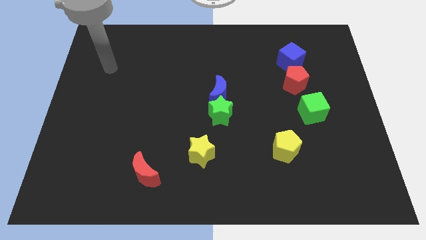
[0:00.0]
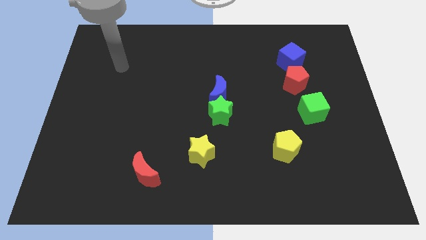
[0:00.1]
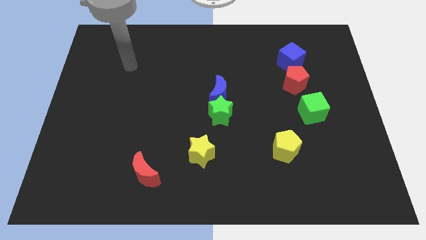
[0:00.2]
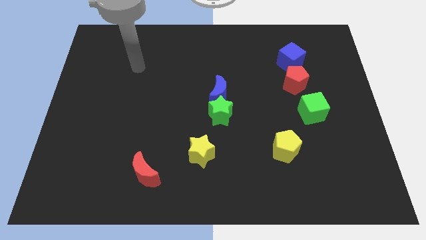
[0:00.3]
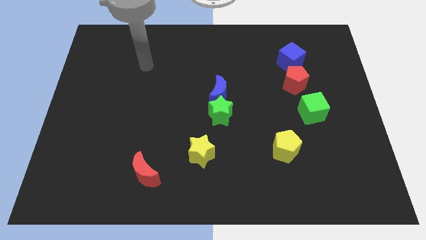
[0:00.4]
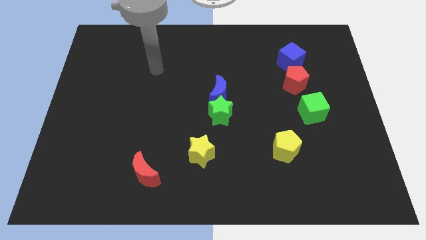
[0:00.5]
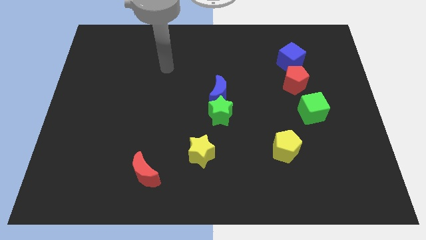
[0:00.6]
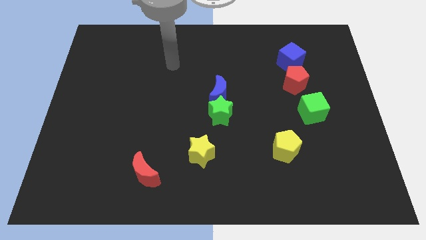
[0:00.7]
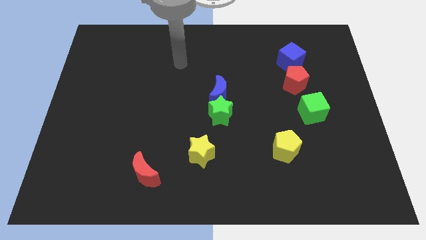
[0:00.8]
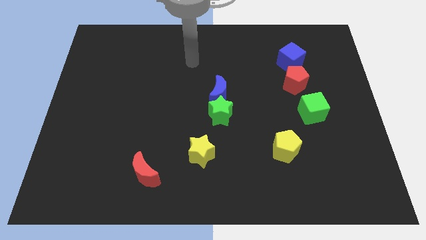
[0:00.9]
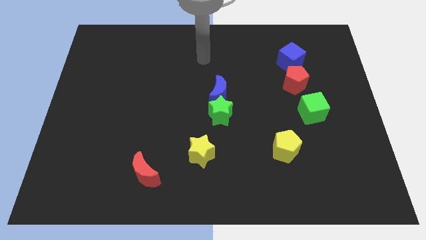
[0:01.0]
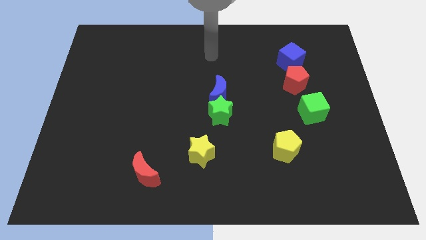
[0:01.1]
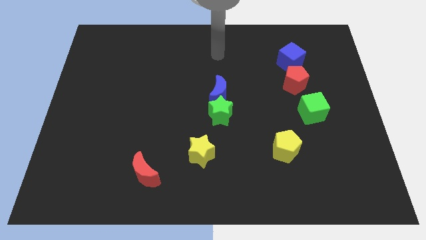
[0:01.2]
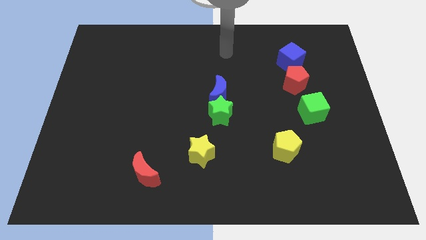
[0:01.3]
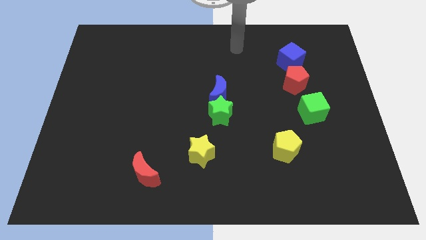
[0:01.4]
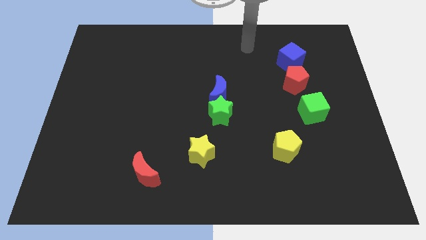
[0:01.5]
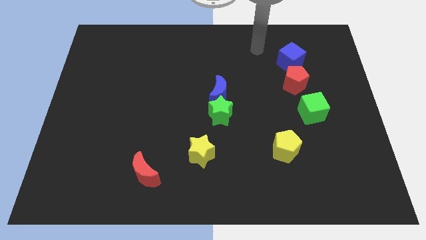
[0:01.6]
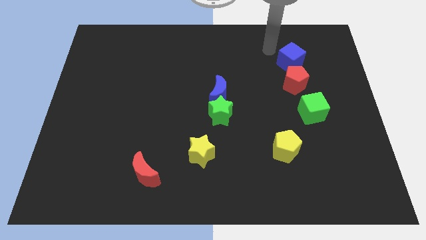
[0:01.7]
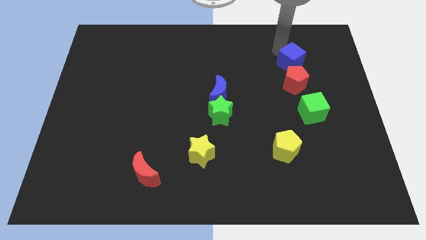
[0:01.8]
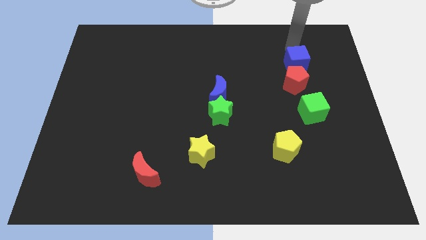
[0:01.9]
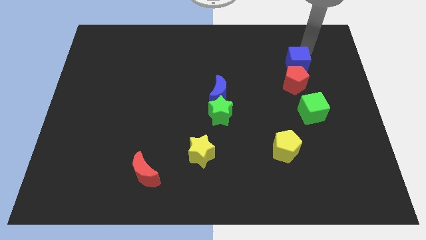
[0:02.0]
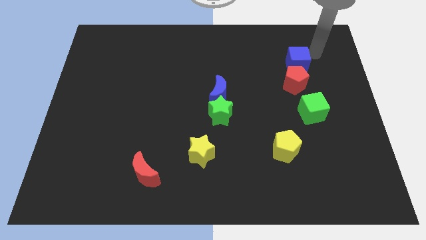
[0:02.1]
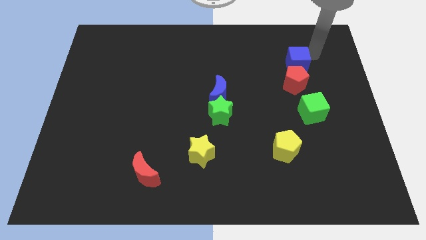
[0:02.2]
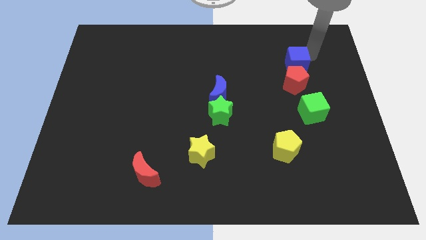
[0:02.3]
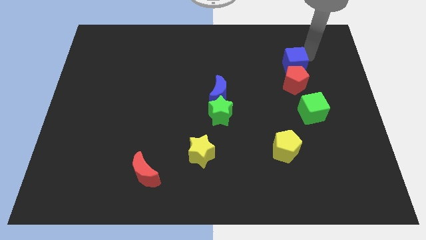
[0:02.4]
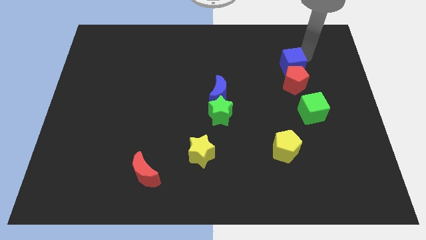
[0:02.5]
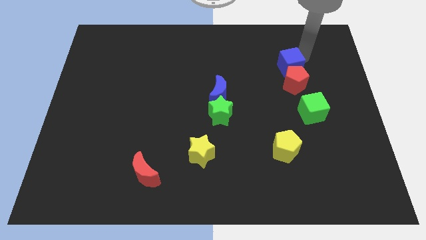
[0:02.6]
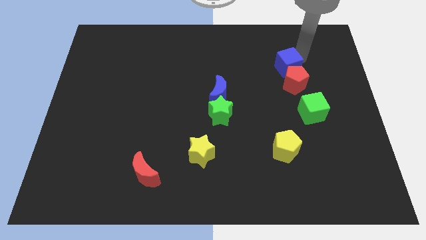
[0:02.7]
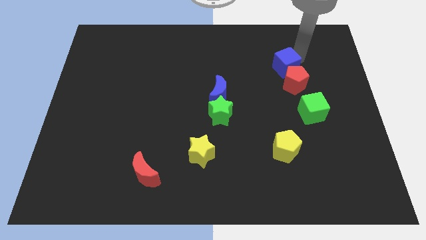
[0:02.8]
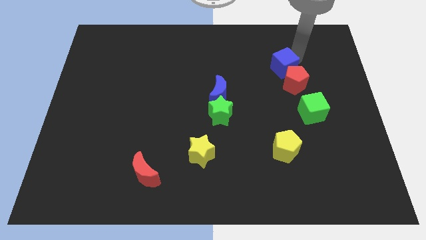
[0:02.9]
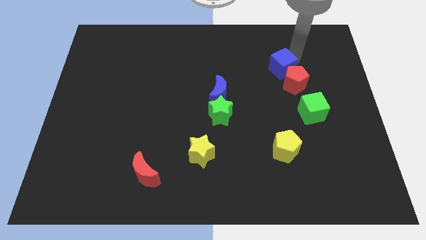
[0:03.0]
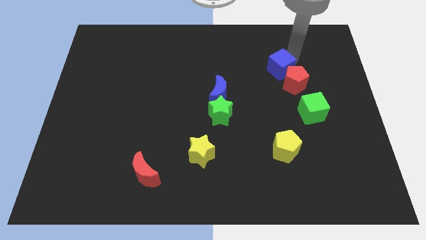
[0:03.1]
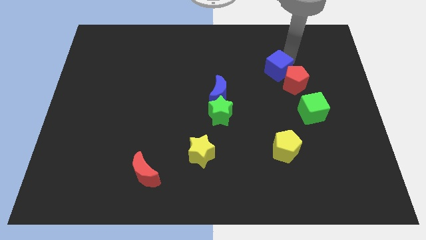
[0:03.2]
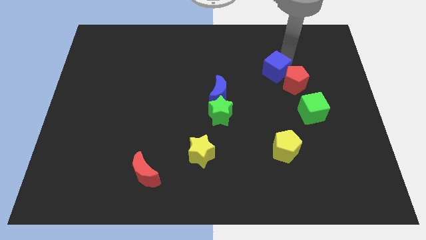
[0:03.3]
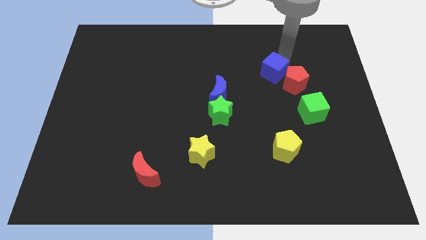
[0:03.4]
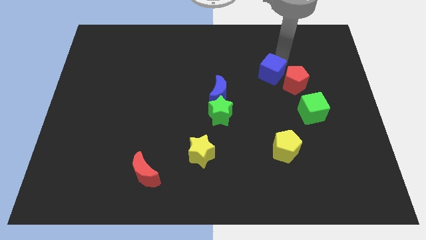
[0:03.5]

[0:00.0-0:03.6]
slightly push the blue cube diagonally down and to the left

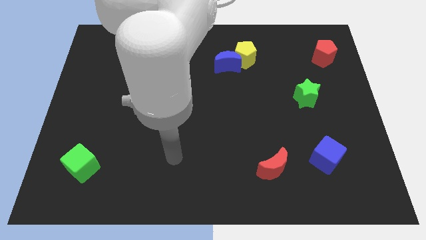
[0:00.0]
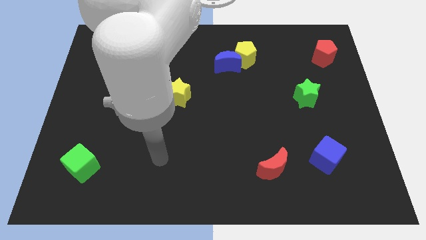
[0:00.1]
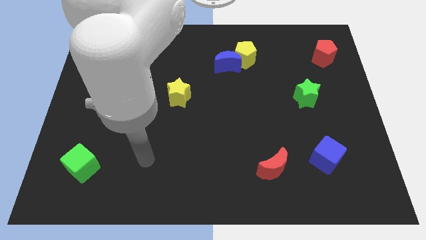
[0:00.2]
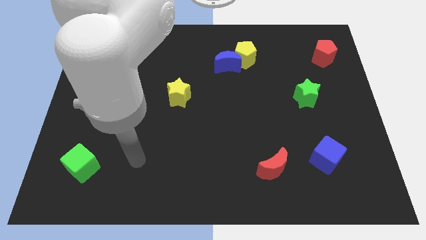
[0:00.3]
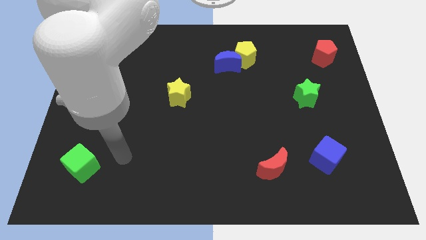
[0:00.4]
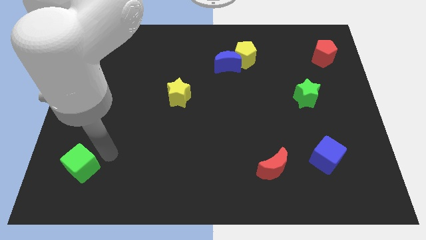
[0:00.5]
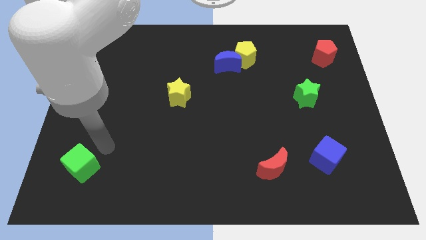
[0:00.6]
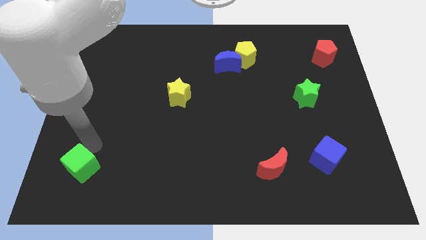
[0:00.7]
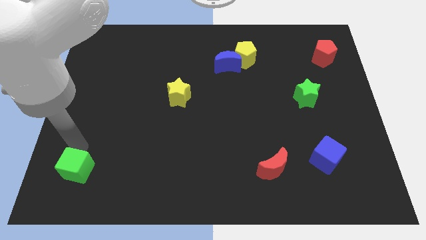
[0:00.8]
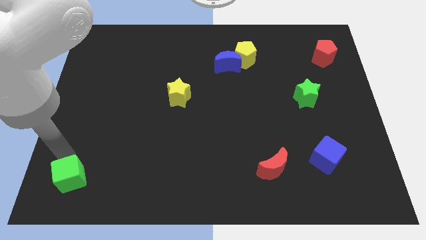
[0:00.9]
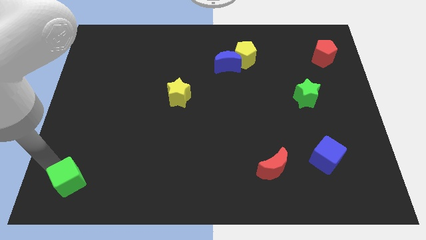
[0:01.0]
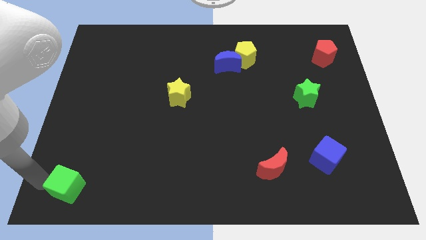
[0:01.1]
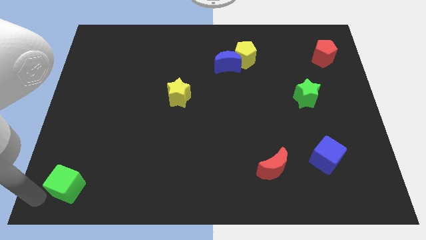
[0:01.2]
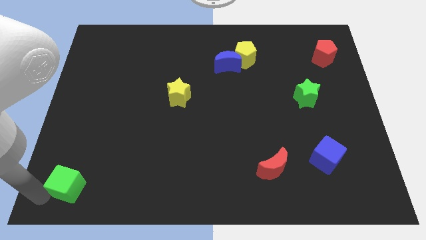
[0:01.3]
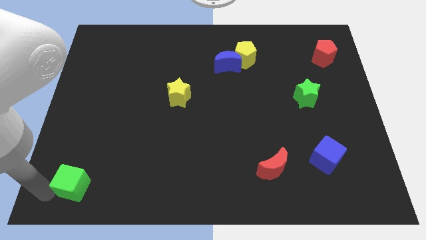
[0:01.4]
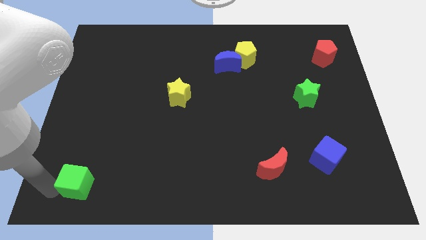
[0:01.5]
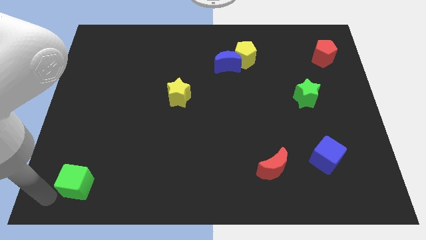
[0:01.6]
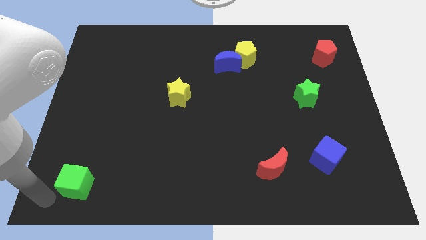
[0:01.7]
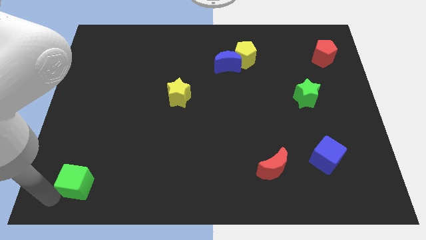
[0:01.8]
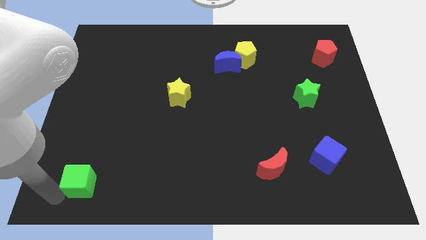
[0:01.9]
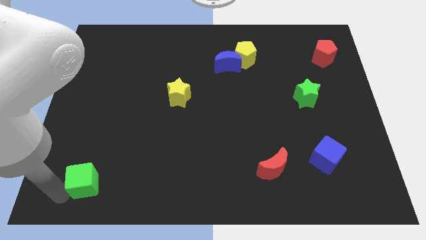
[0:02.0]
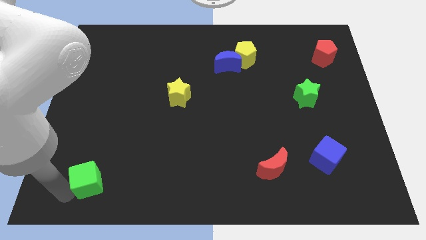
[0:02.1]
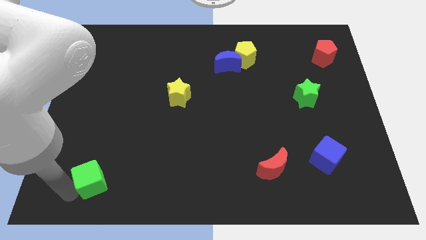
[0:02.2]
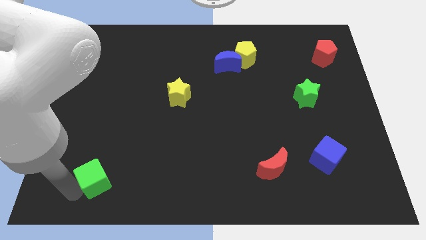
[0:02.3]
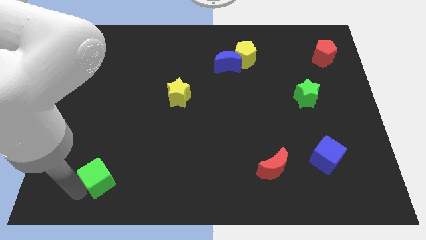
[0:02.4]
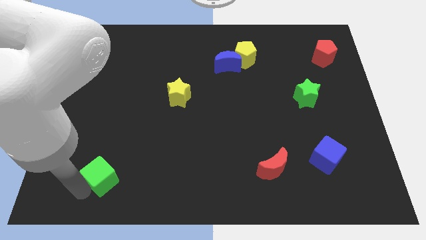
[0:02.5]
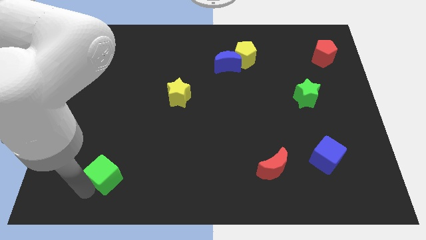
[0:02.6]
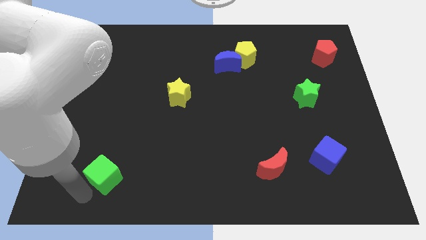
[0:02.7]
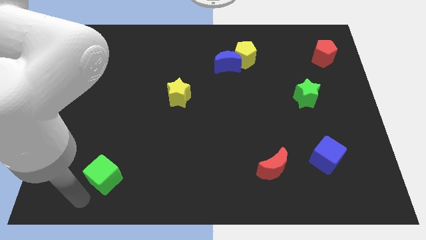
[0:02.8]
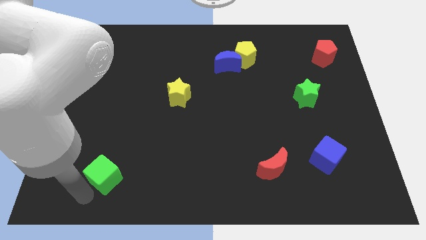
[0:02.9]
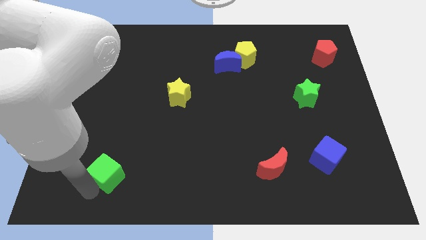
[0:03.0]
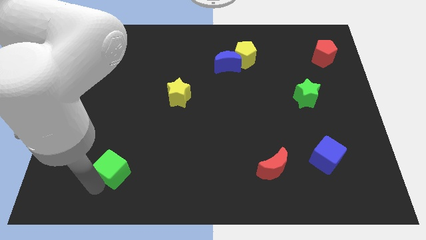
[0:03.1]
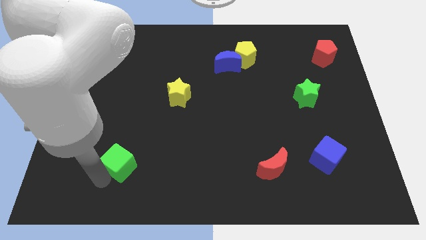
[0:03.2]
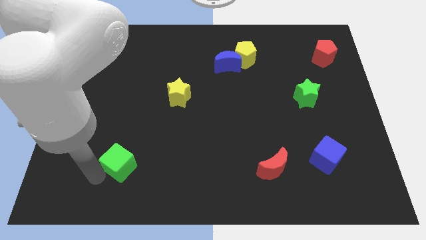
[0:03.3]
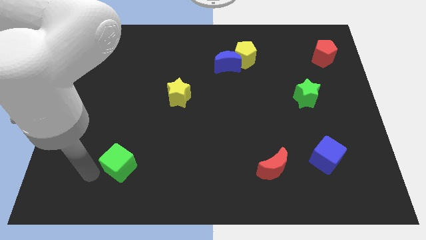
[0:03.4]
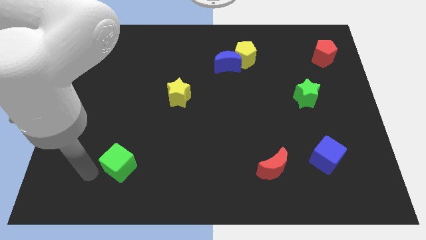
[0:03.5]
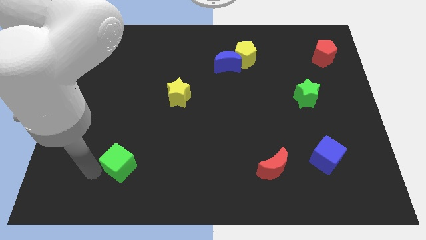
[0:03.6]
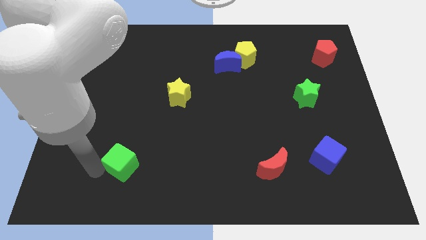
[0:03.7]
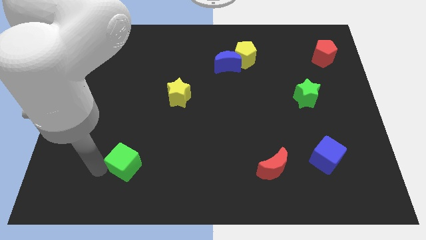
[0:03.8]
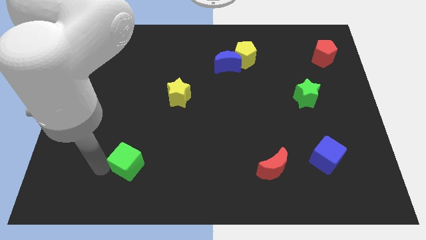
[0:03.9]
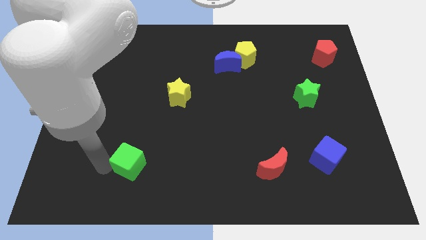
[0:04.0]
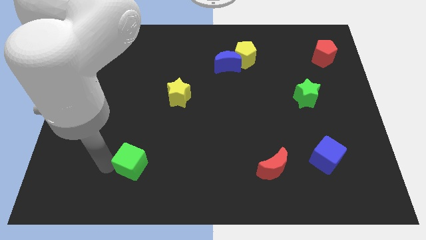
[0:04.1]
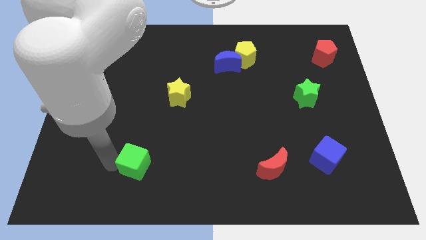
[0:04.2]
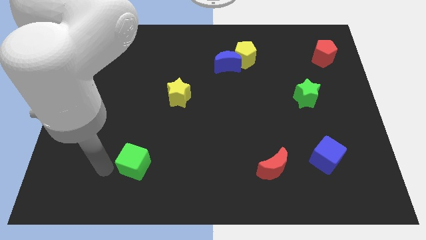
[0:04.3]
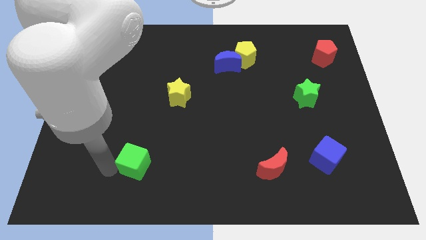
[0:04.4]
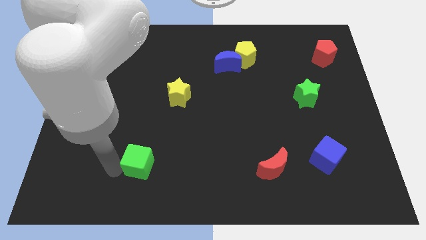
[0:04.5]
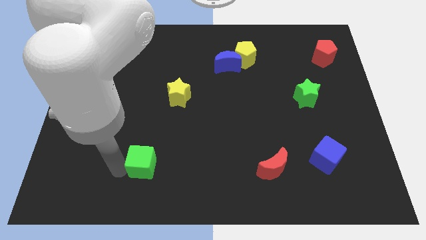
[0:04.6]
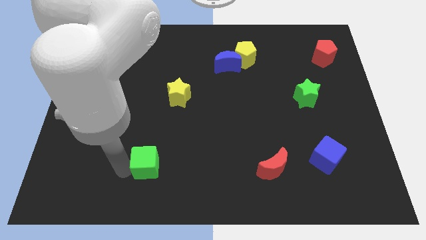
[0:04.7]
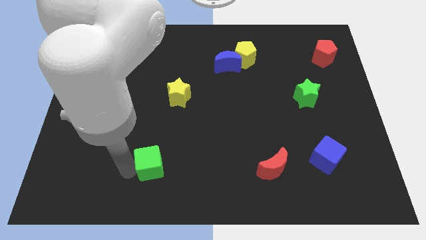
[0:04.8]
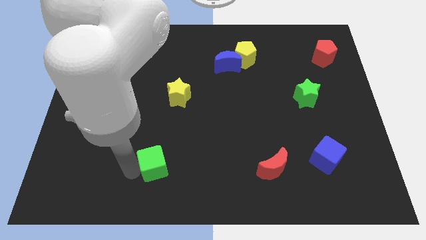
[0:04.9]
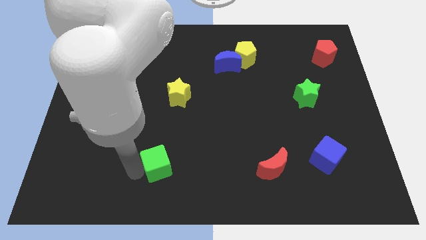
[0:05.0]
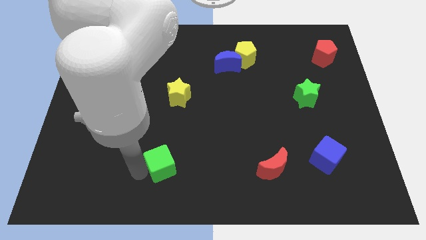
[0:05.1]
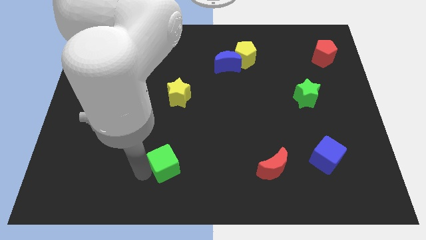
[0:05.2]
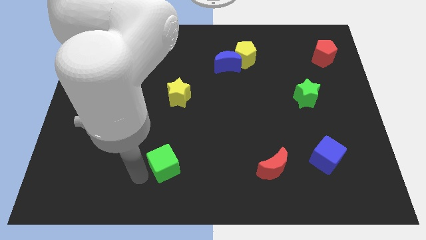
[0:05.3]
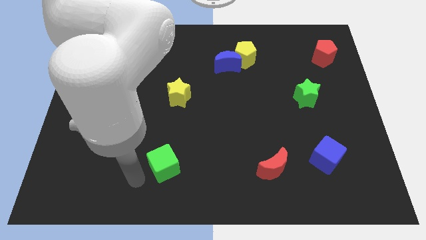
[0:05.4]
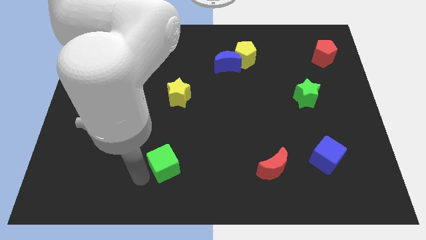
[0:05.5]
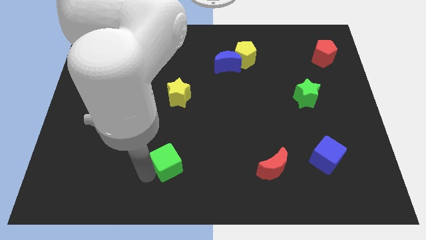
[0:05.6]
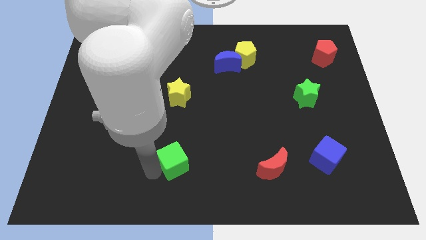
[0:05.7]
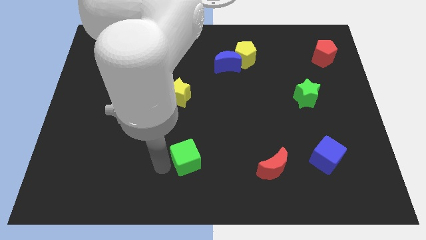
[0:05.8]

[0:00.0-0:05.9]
push the green cube to the right
